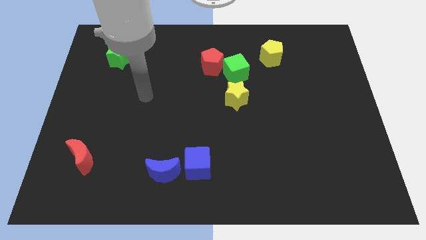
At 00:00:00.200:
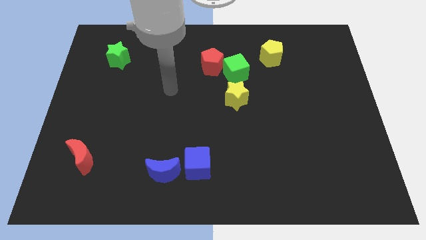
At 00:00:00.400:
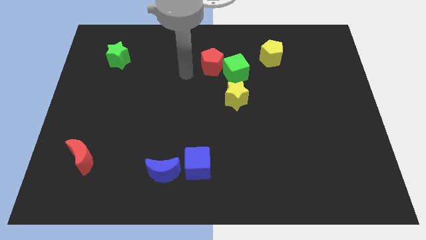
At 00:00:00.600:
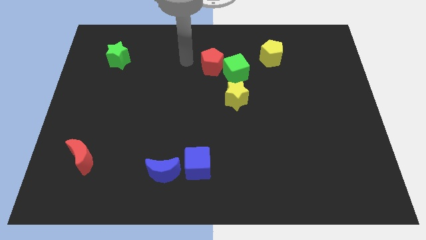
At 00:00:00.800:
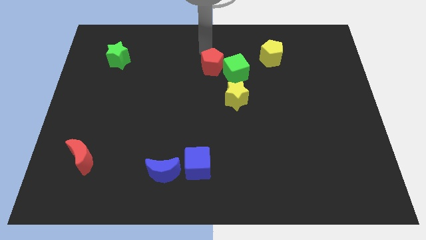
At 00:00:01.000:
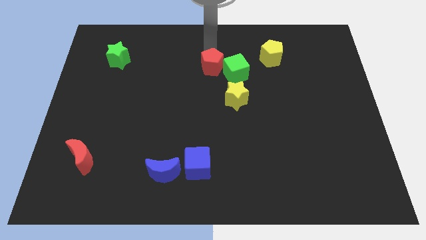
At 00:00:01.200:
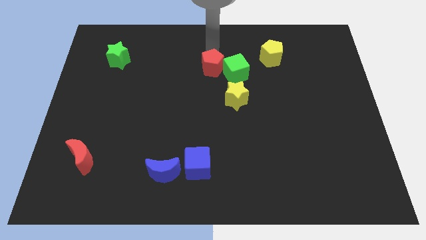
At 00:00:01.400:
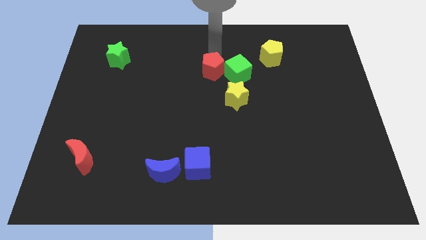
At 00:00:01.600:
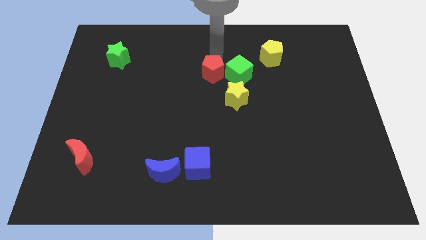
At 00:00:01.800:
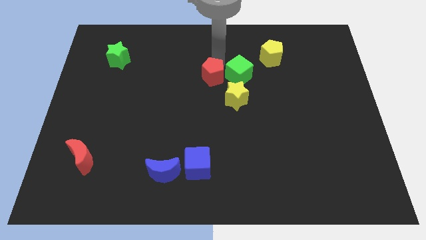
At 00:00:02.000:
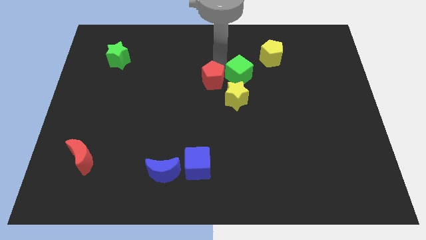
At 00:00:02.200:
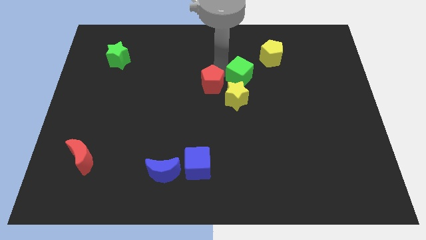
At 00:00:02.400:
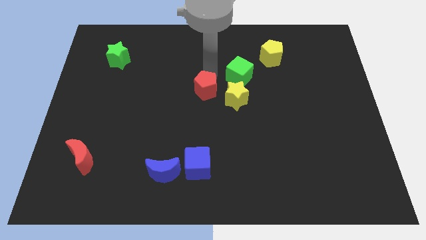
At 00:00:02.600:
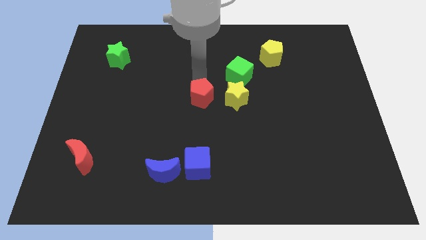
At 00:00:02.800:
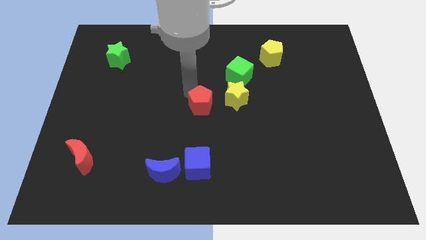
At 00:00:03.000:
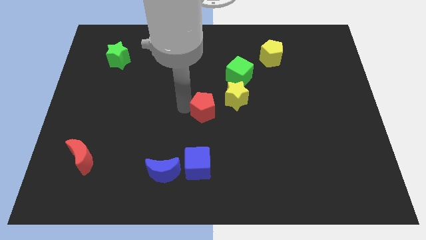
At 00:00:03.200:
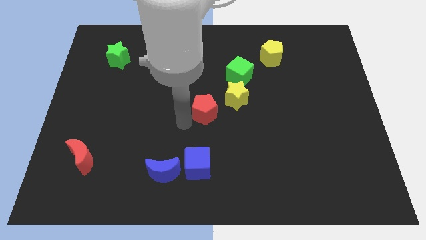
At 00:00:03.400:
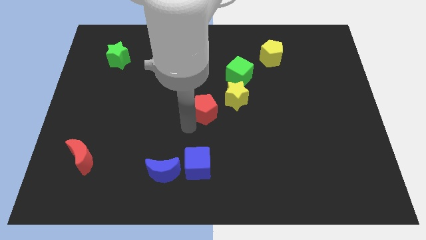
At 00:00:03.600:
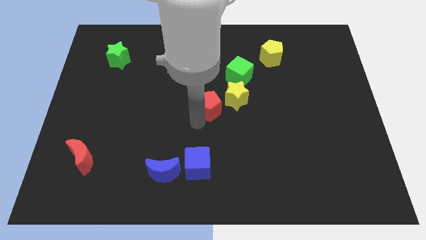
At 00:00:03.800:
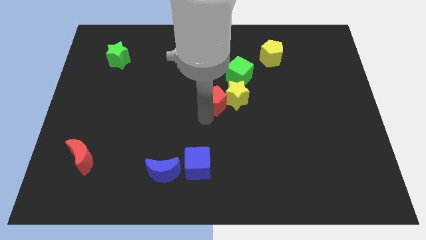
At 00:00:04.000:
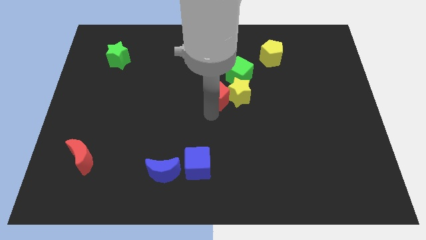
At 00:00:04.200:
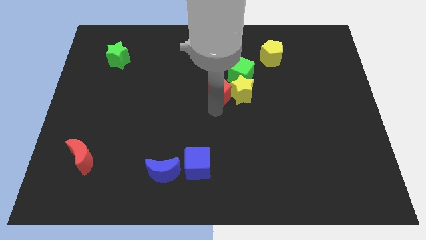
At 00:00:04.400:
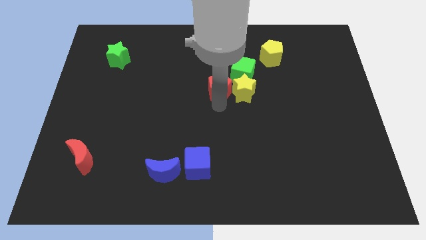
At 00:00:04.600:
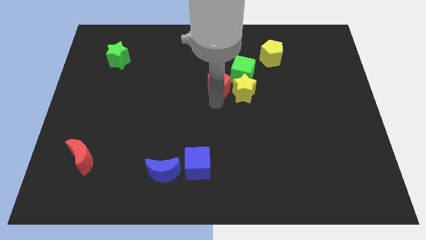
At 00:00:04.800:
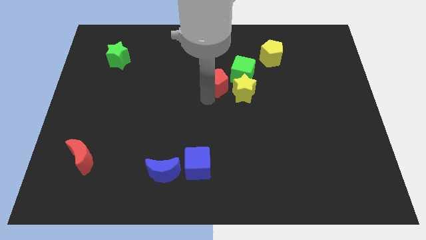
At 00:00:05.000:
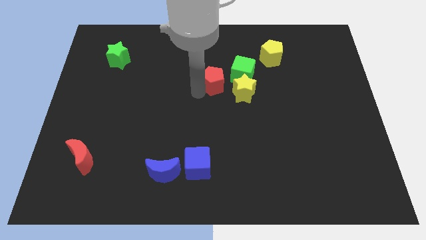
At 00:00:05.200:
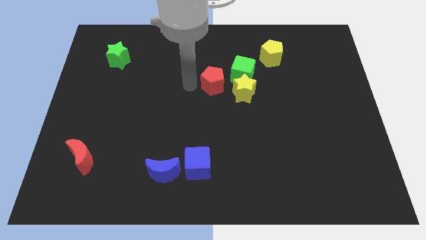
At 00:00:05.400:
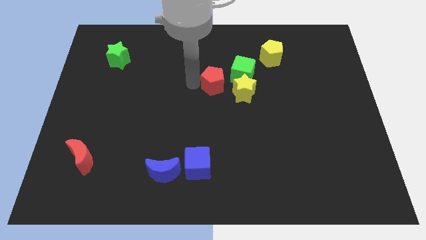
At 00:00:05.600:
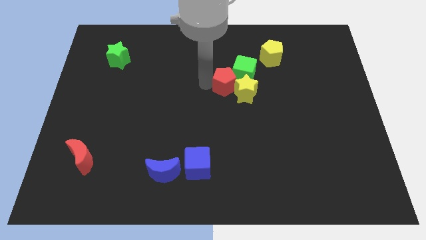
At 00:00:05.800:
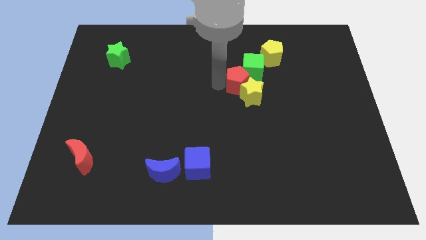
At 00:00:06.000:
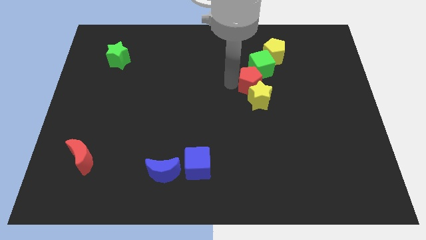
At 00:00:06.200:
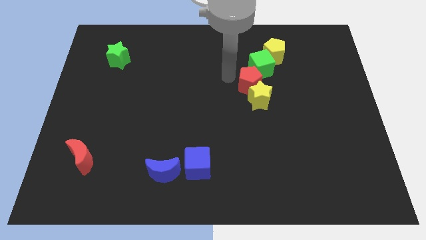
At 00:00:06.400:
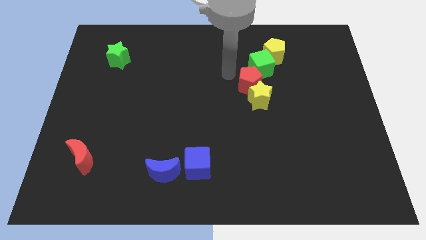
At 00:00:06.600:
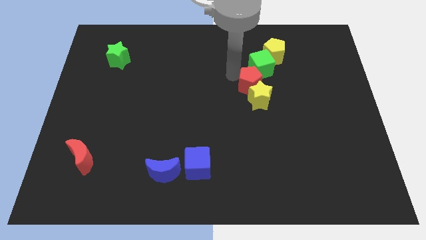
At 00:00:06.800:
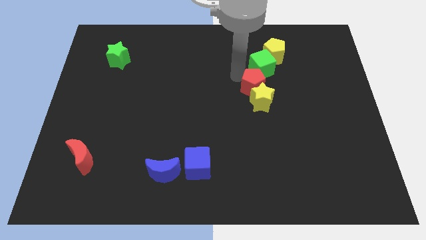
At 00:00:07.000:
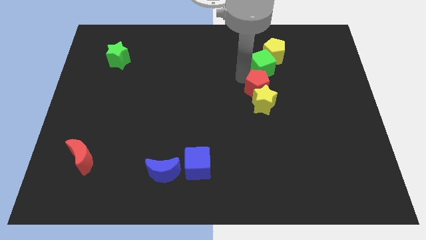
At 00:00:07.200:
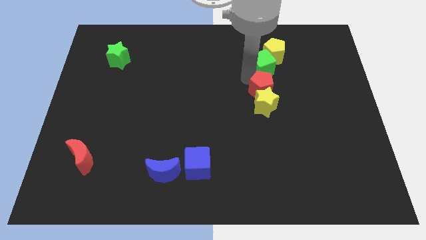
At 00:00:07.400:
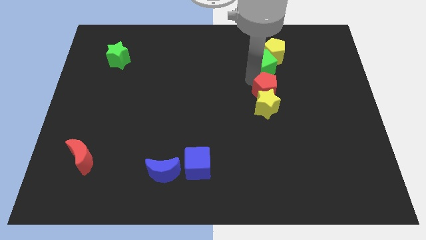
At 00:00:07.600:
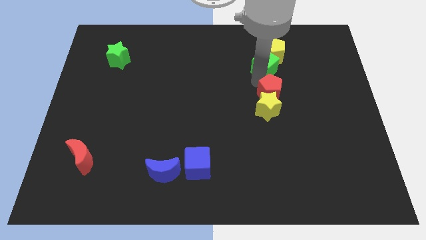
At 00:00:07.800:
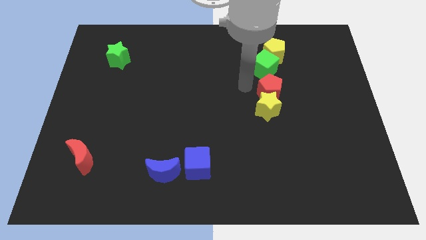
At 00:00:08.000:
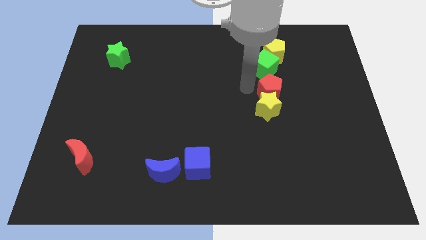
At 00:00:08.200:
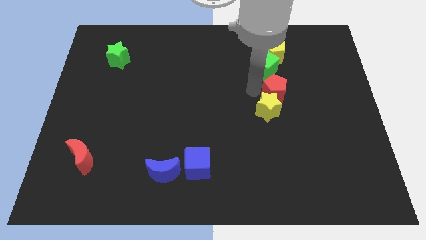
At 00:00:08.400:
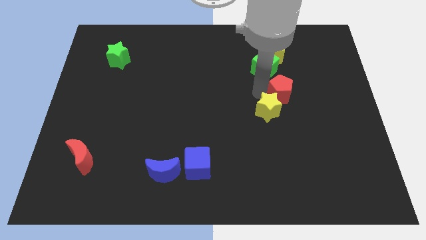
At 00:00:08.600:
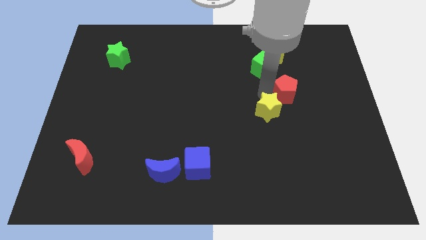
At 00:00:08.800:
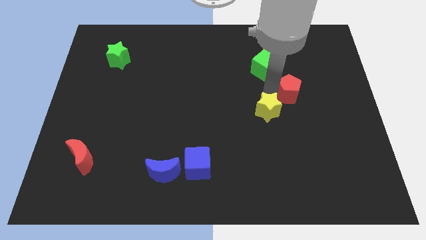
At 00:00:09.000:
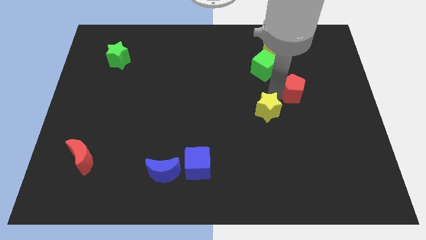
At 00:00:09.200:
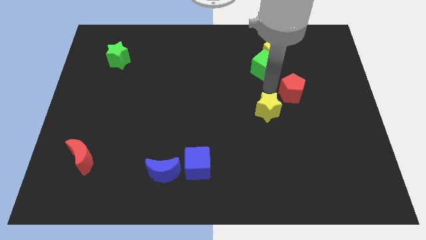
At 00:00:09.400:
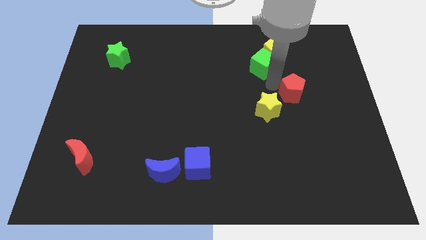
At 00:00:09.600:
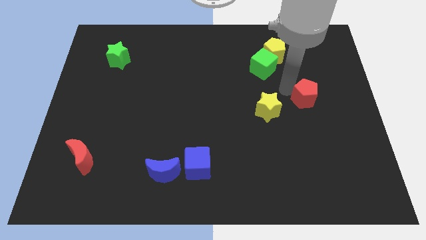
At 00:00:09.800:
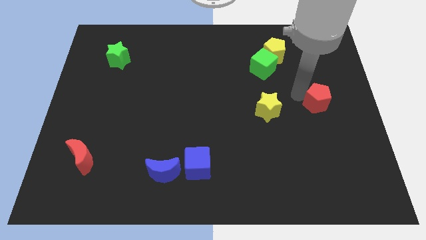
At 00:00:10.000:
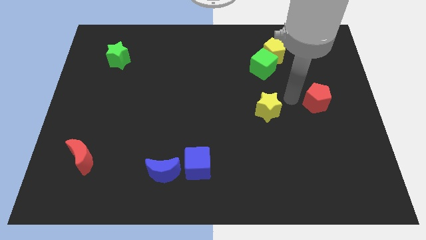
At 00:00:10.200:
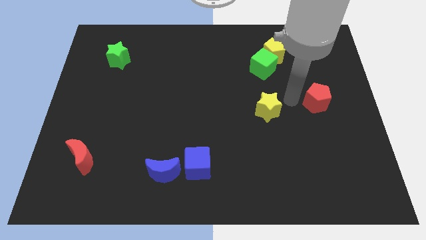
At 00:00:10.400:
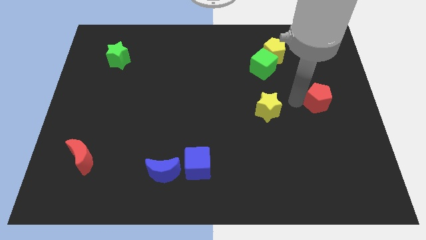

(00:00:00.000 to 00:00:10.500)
put the red pentagon to the center right

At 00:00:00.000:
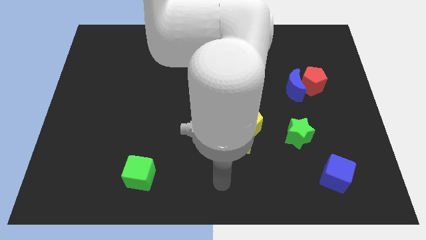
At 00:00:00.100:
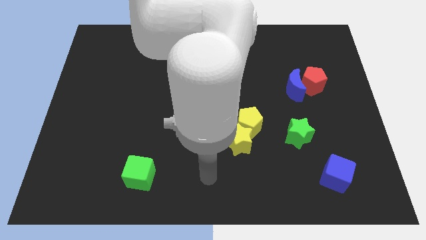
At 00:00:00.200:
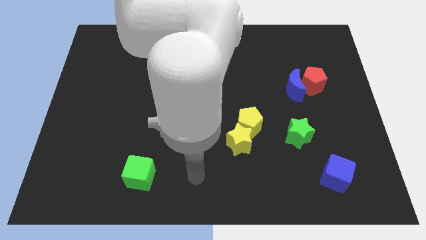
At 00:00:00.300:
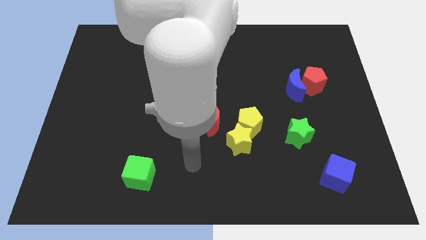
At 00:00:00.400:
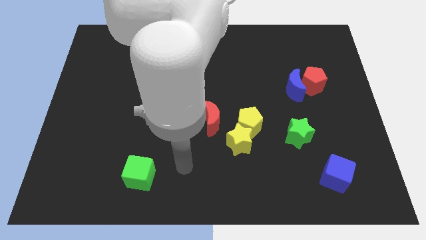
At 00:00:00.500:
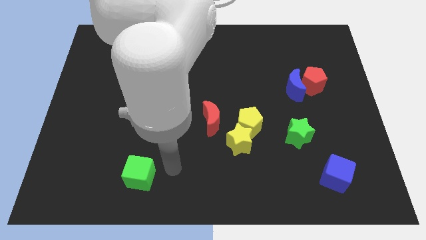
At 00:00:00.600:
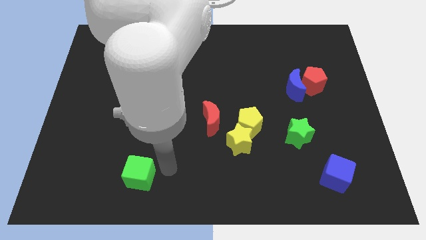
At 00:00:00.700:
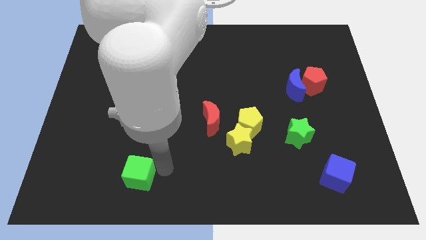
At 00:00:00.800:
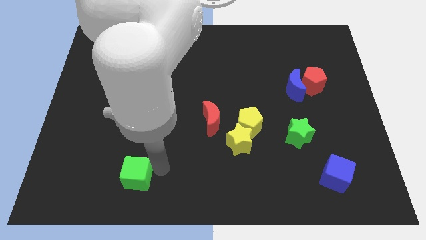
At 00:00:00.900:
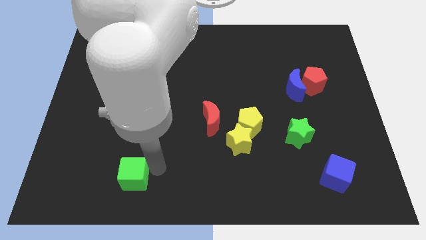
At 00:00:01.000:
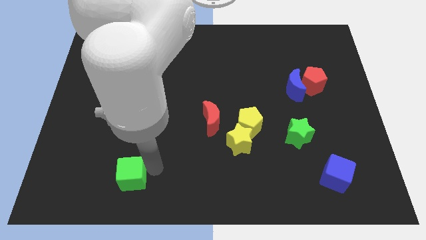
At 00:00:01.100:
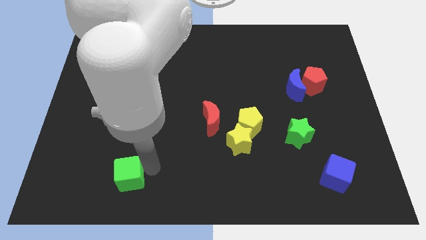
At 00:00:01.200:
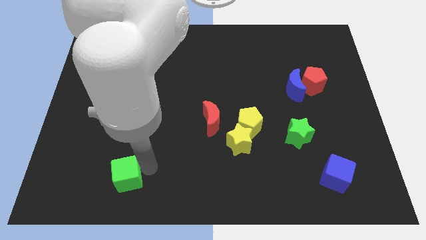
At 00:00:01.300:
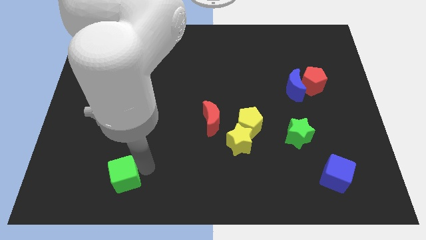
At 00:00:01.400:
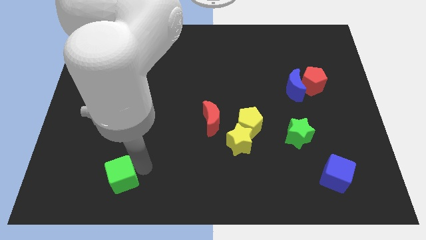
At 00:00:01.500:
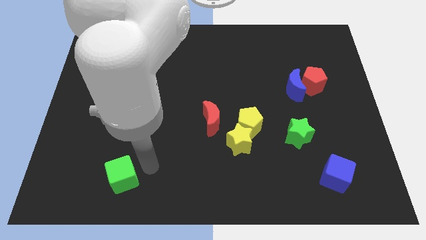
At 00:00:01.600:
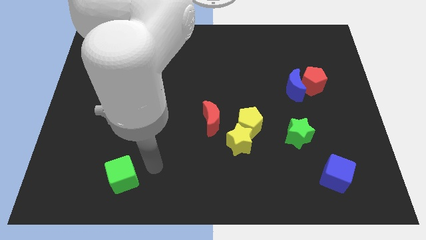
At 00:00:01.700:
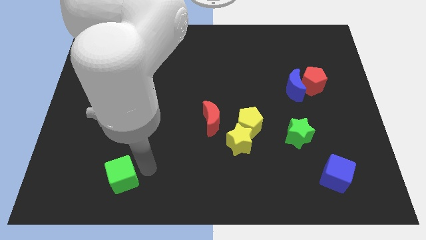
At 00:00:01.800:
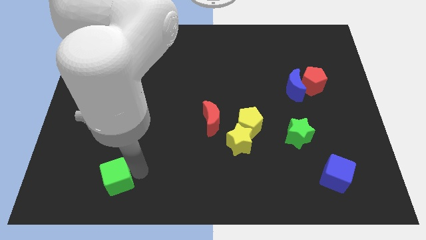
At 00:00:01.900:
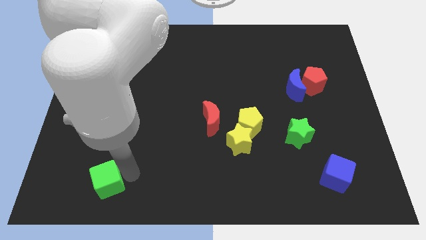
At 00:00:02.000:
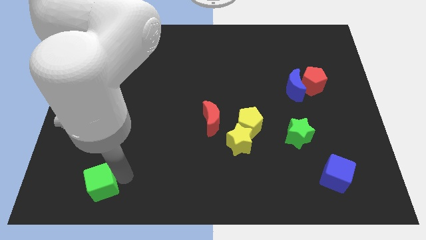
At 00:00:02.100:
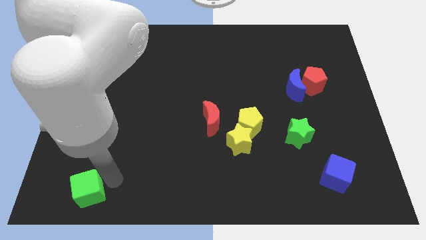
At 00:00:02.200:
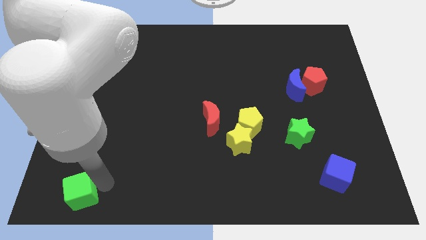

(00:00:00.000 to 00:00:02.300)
push the green cube to the bottom left corner
